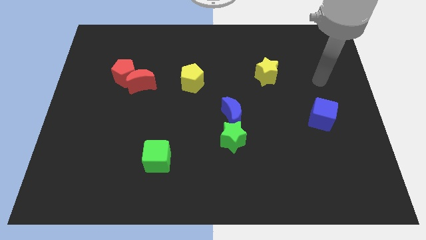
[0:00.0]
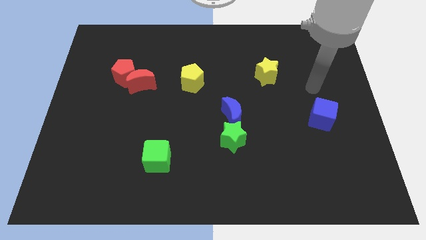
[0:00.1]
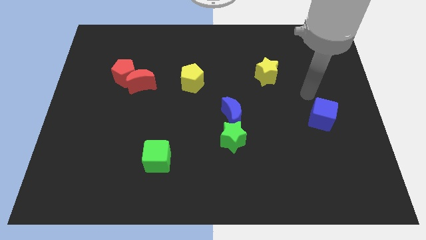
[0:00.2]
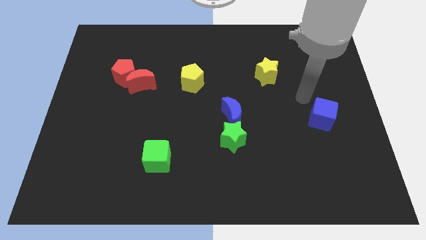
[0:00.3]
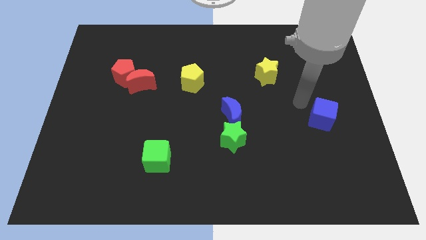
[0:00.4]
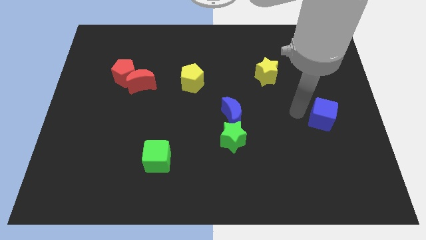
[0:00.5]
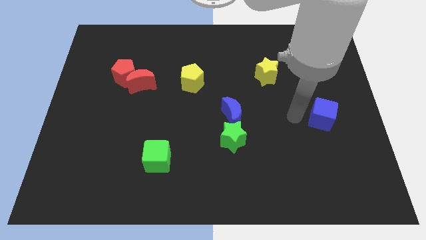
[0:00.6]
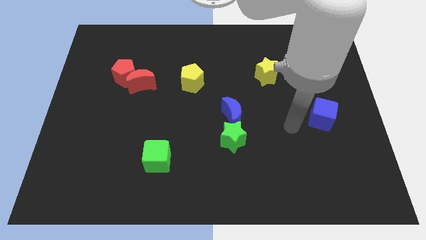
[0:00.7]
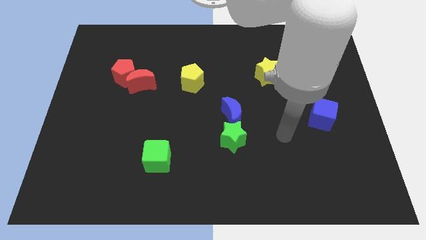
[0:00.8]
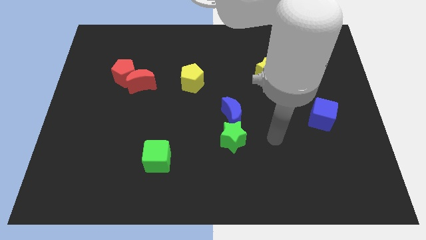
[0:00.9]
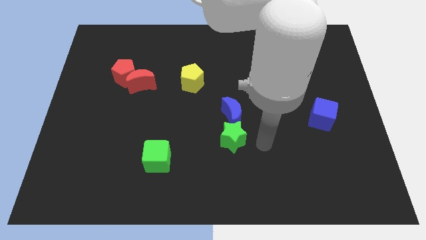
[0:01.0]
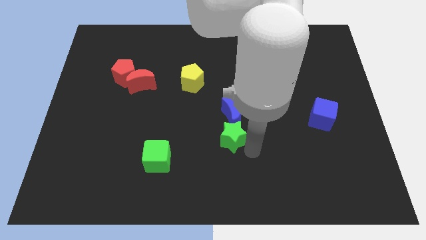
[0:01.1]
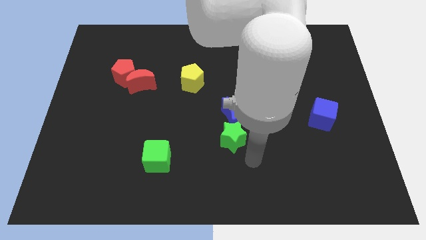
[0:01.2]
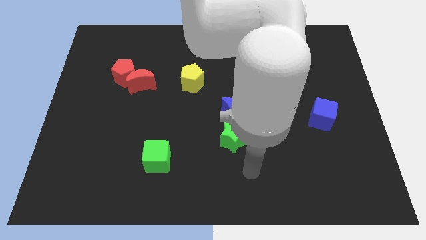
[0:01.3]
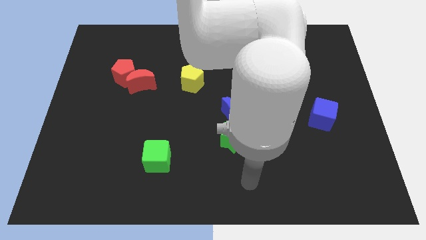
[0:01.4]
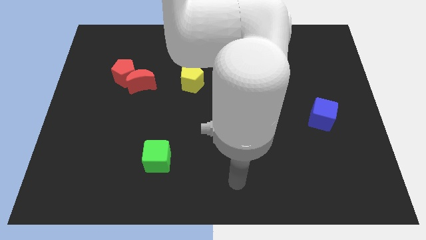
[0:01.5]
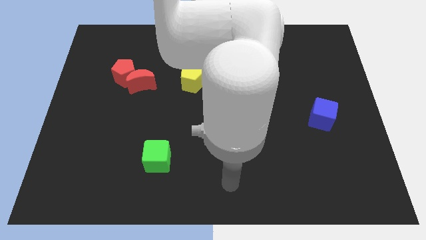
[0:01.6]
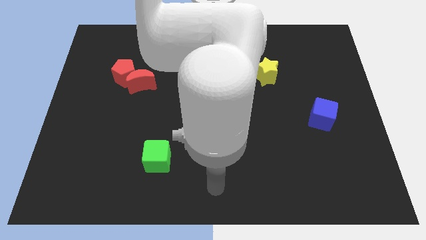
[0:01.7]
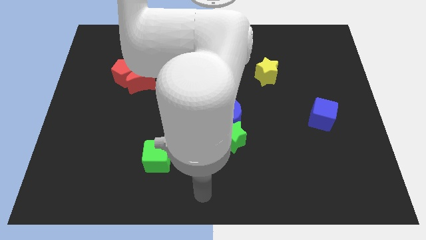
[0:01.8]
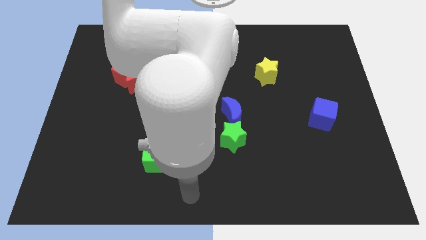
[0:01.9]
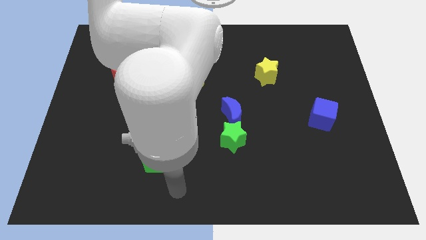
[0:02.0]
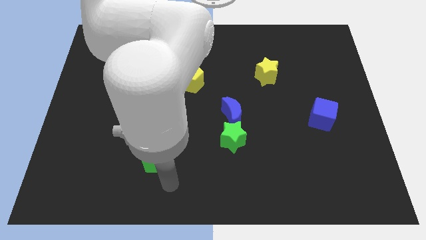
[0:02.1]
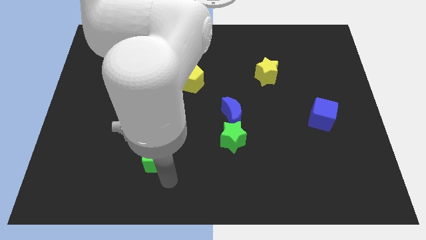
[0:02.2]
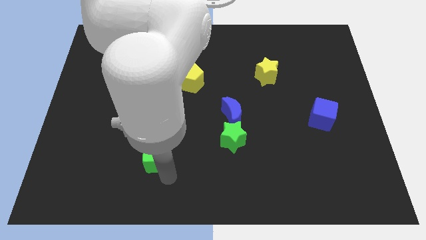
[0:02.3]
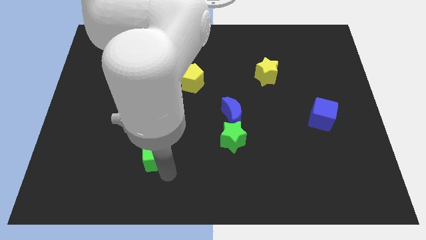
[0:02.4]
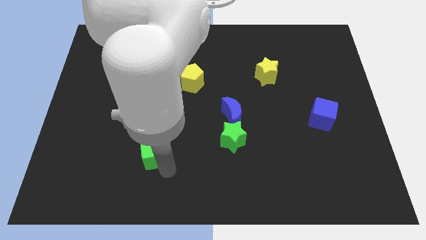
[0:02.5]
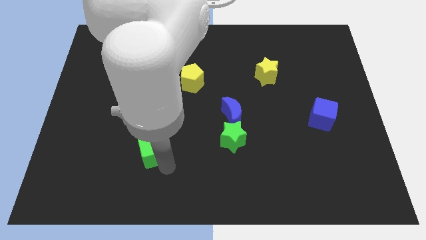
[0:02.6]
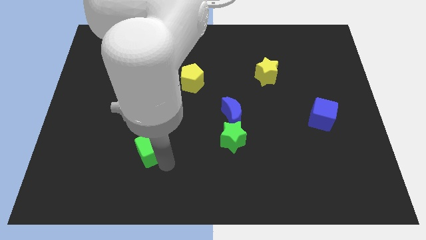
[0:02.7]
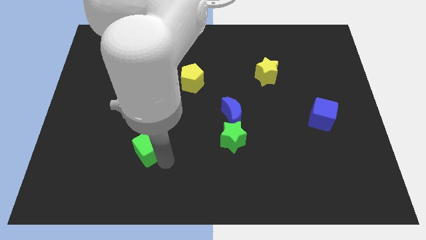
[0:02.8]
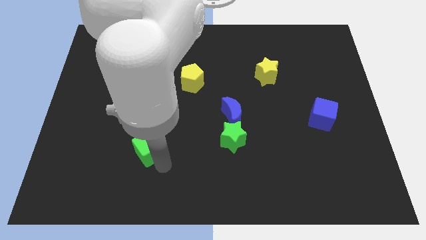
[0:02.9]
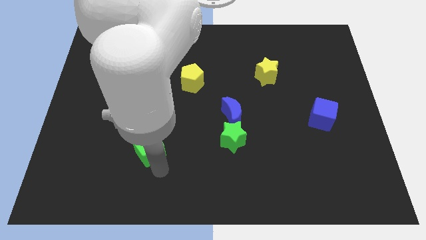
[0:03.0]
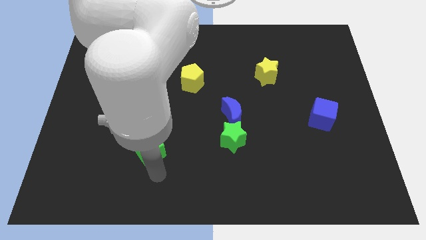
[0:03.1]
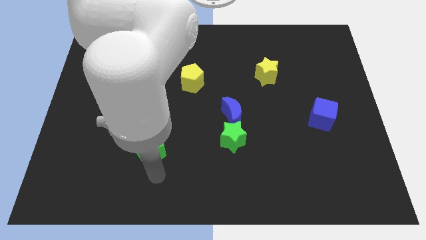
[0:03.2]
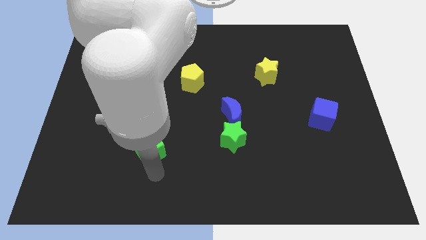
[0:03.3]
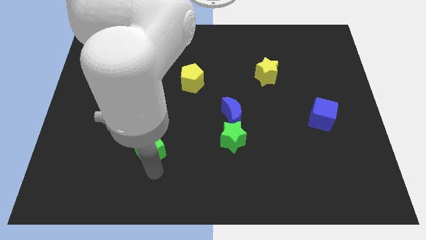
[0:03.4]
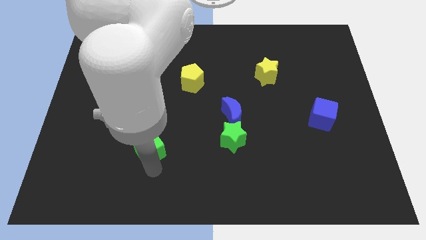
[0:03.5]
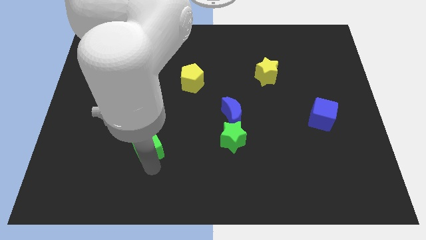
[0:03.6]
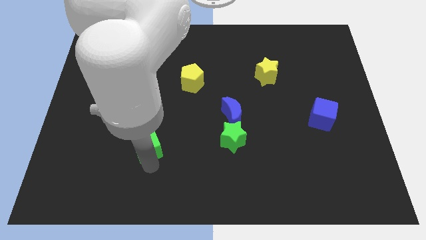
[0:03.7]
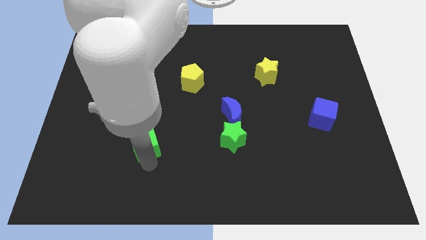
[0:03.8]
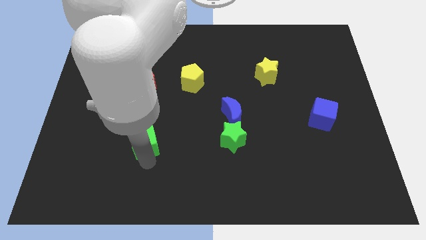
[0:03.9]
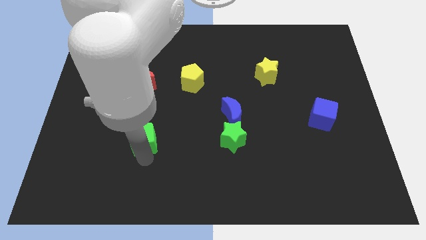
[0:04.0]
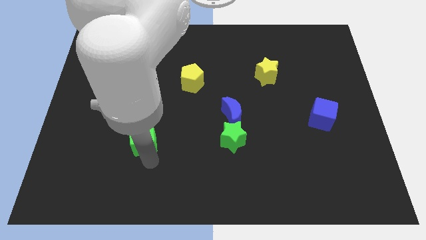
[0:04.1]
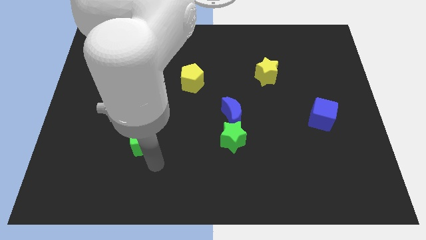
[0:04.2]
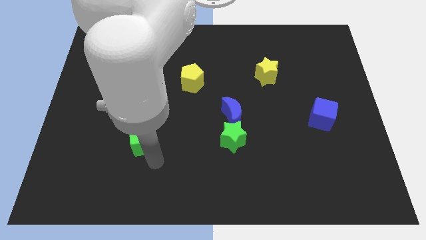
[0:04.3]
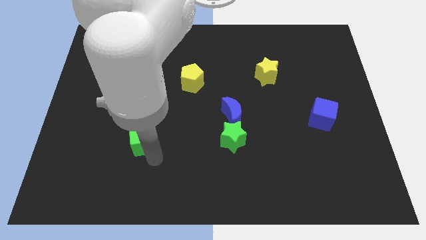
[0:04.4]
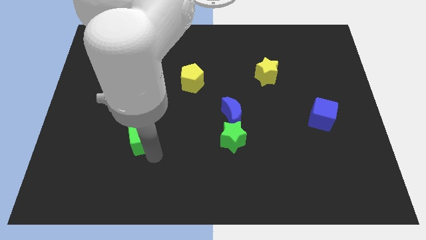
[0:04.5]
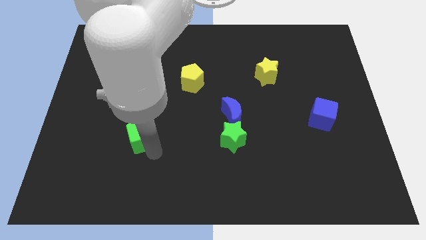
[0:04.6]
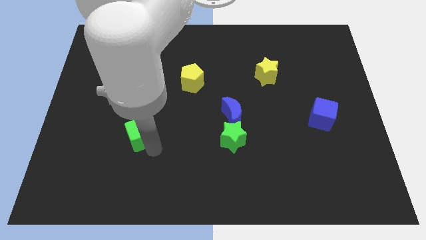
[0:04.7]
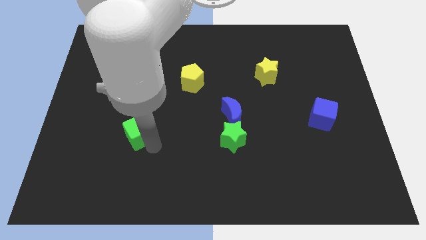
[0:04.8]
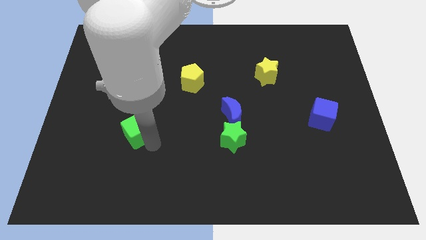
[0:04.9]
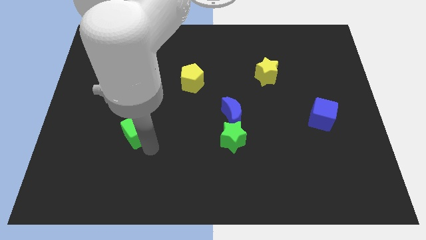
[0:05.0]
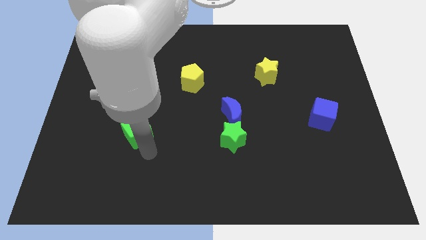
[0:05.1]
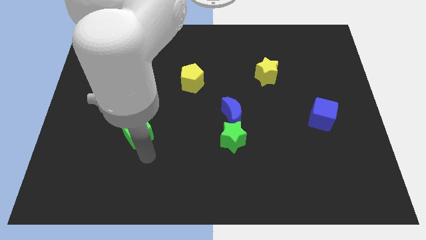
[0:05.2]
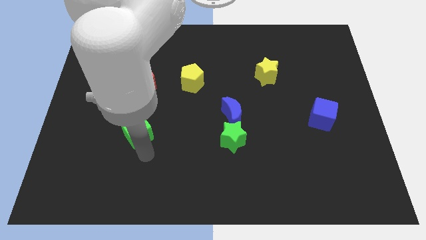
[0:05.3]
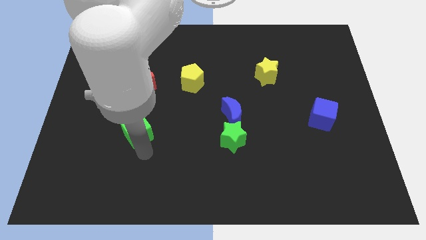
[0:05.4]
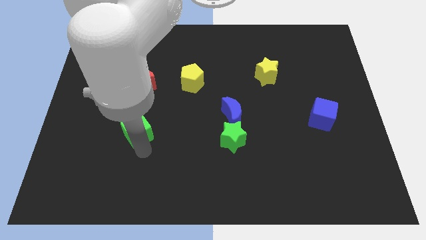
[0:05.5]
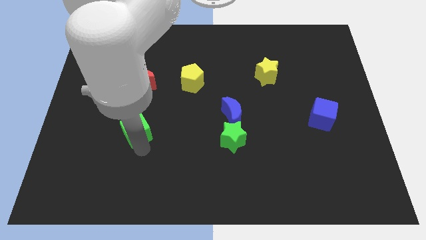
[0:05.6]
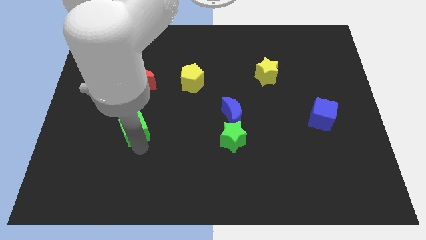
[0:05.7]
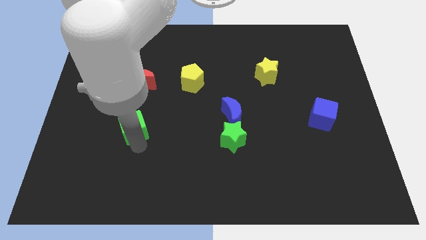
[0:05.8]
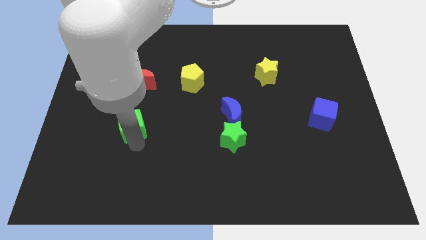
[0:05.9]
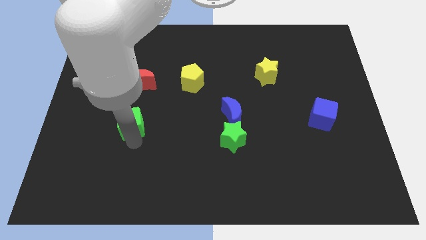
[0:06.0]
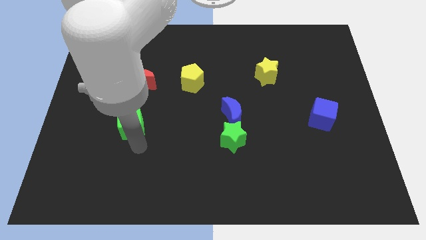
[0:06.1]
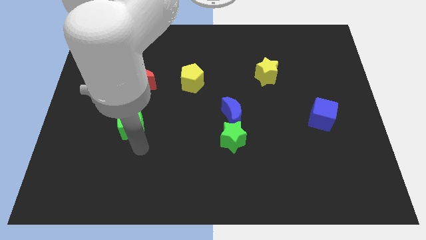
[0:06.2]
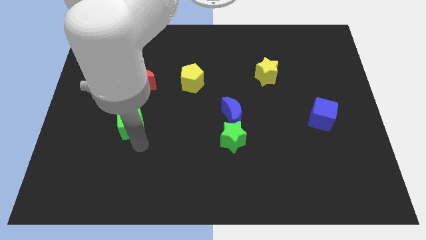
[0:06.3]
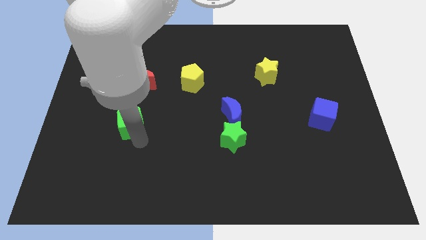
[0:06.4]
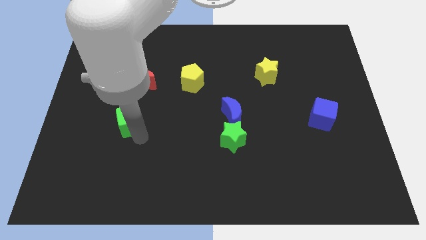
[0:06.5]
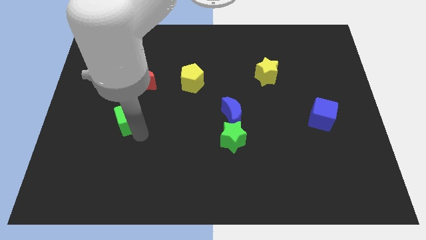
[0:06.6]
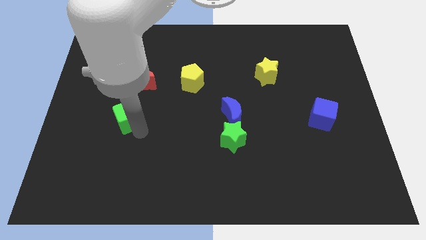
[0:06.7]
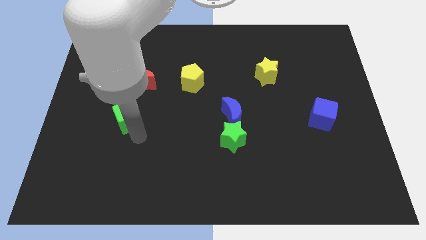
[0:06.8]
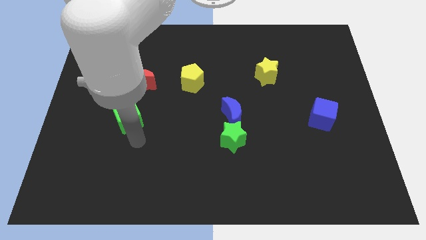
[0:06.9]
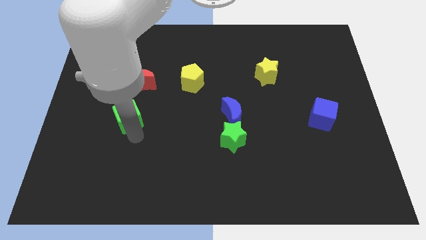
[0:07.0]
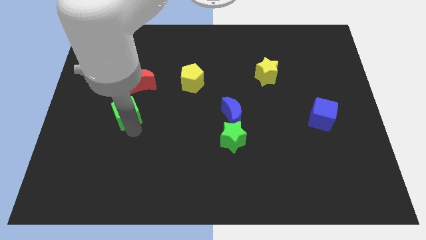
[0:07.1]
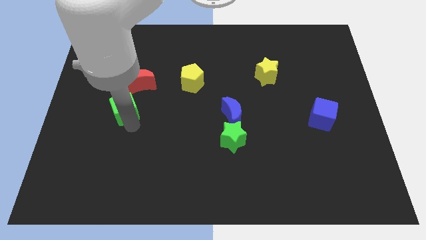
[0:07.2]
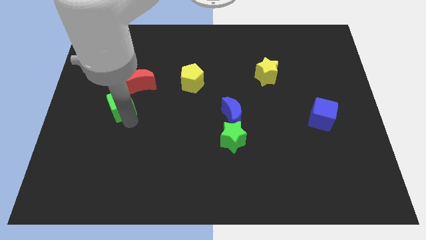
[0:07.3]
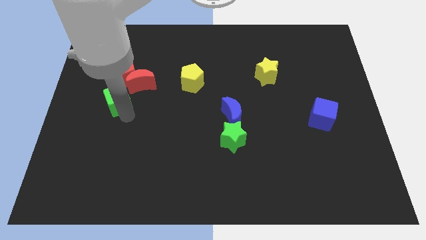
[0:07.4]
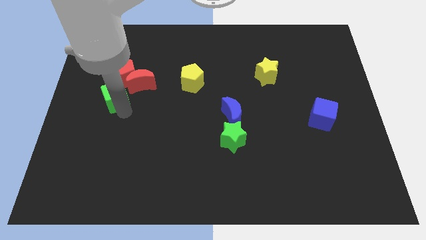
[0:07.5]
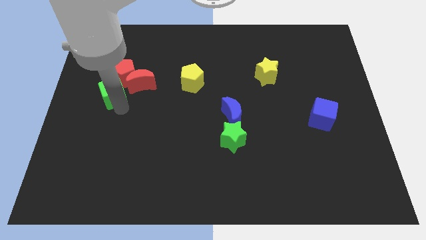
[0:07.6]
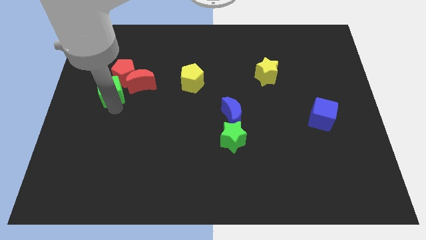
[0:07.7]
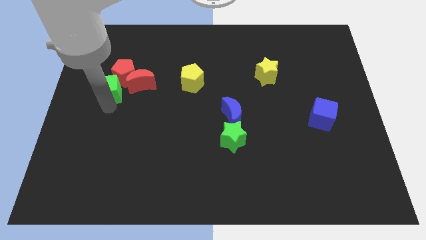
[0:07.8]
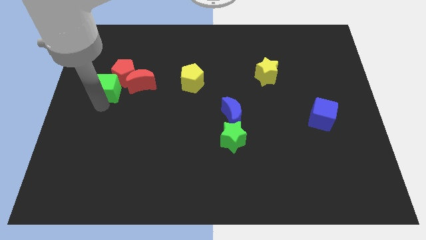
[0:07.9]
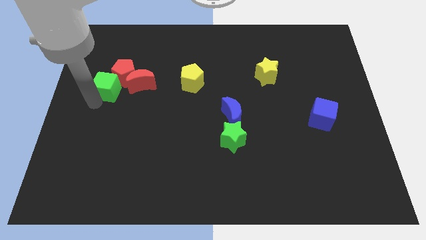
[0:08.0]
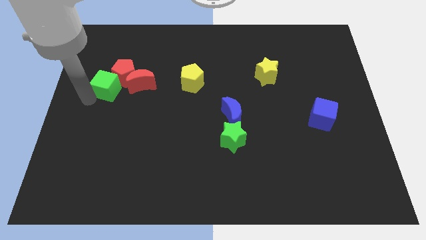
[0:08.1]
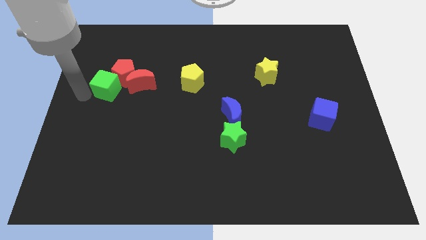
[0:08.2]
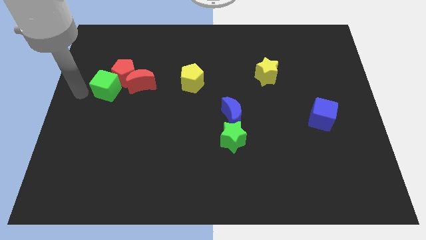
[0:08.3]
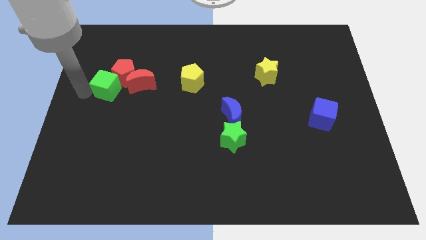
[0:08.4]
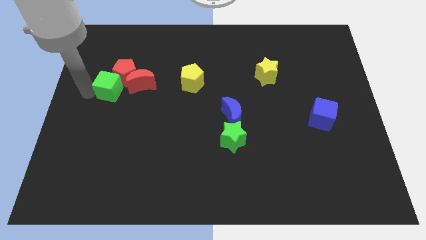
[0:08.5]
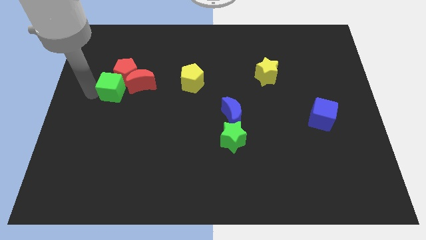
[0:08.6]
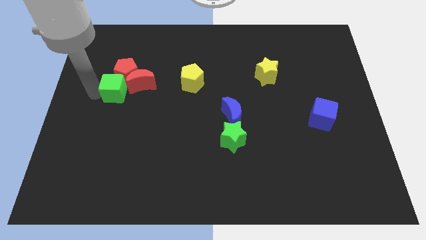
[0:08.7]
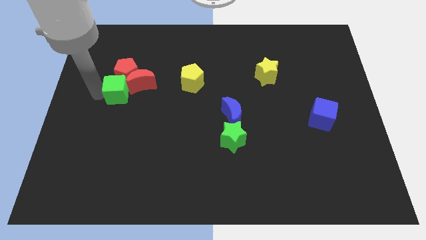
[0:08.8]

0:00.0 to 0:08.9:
slide the green cube next to the red moon
